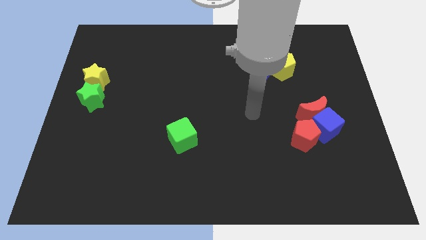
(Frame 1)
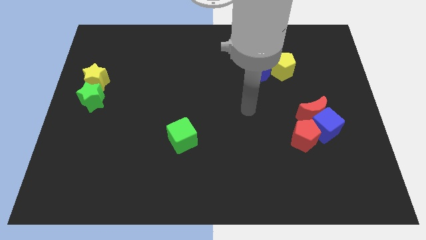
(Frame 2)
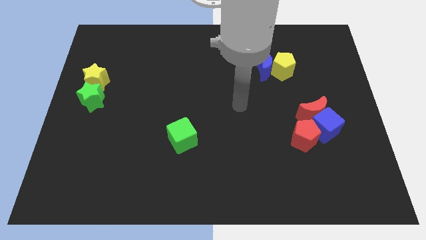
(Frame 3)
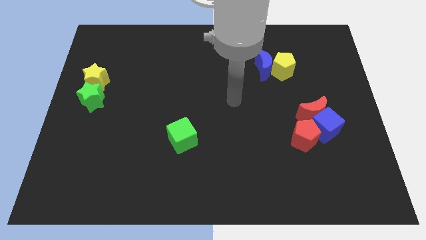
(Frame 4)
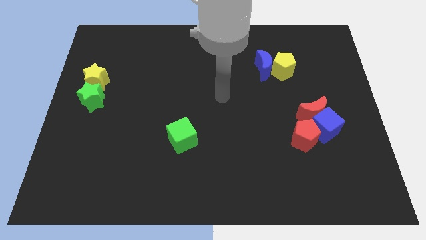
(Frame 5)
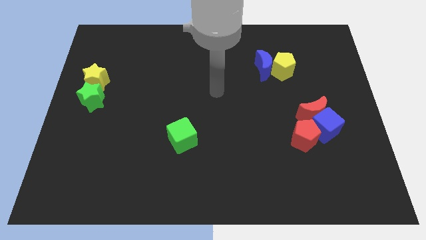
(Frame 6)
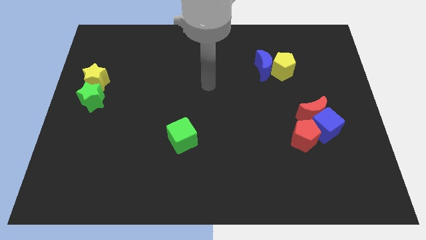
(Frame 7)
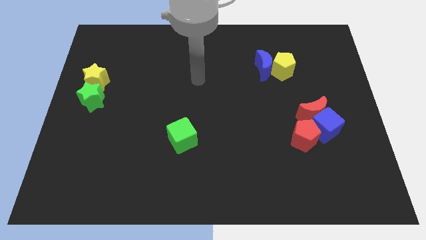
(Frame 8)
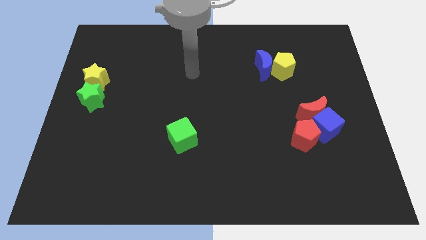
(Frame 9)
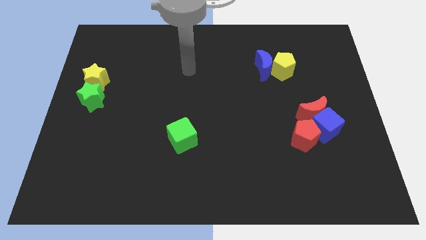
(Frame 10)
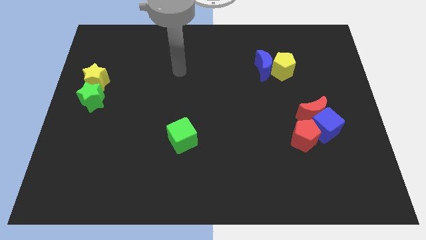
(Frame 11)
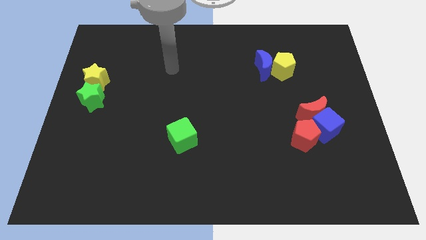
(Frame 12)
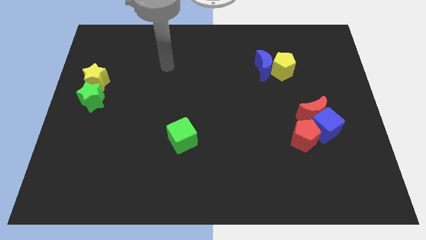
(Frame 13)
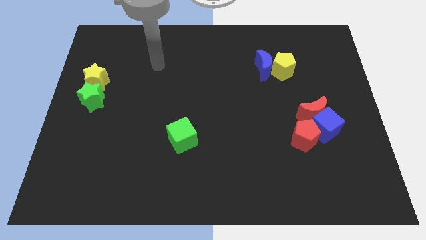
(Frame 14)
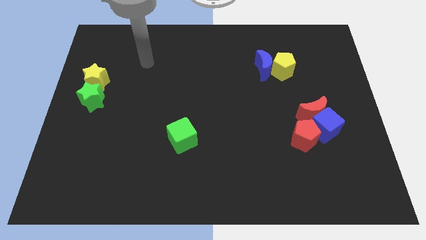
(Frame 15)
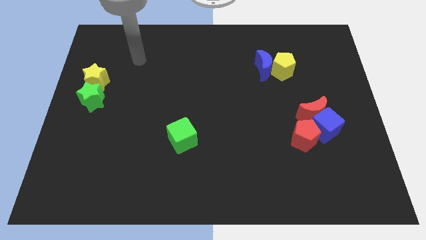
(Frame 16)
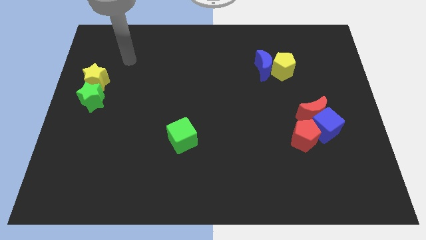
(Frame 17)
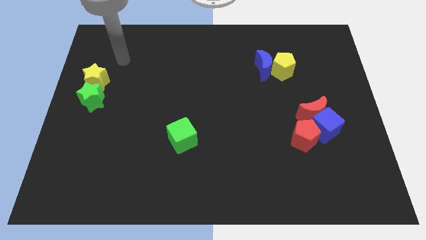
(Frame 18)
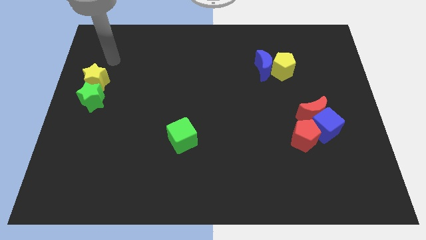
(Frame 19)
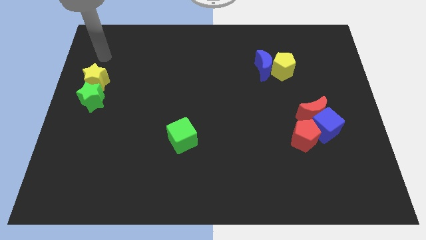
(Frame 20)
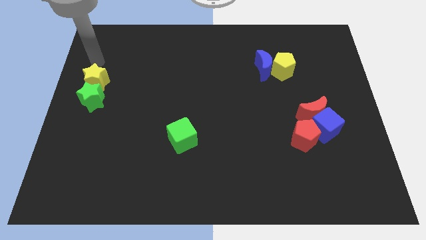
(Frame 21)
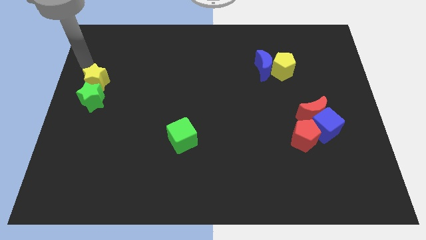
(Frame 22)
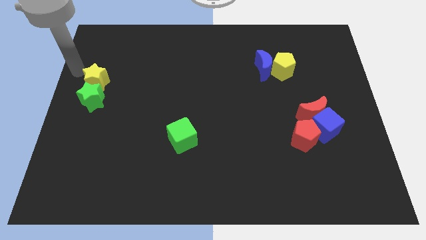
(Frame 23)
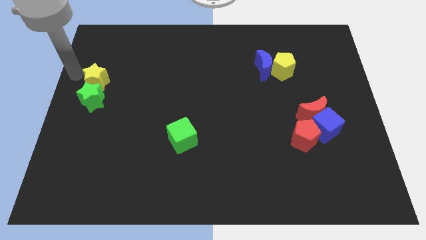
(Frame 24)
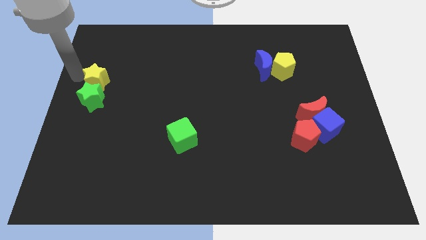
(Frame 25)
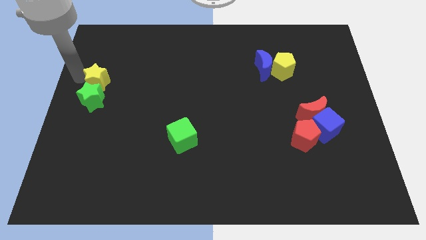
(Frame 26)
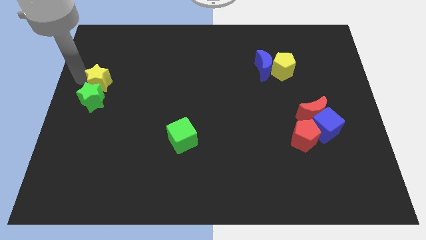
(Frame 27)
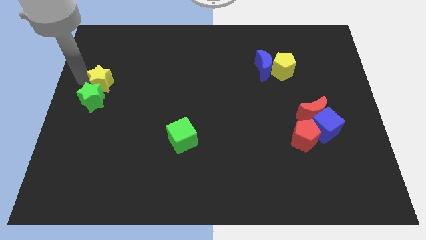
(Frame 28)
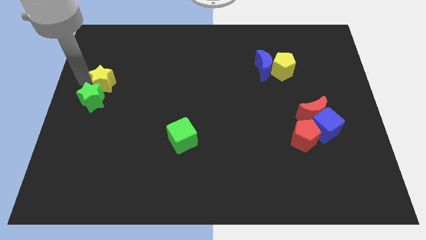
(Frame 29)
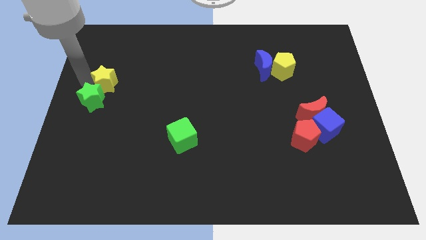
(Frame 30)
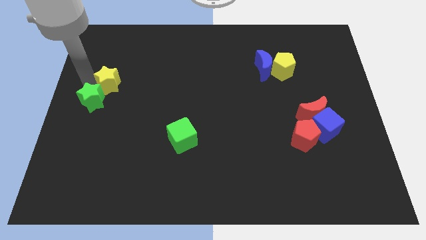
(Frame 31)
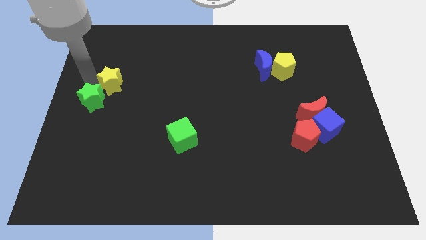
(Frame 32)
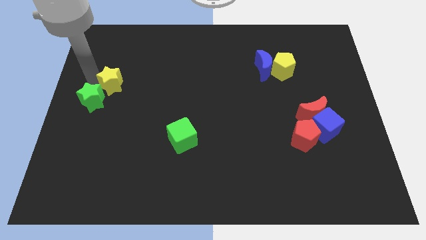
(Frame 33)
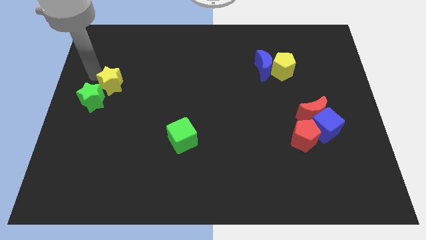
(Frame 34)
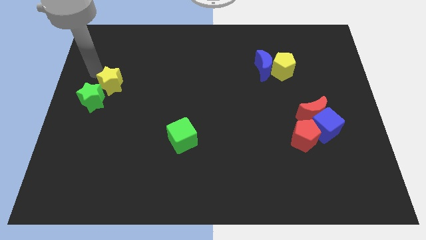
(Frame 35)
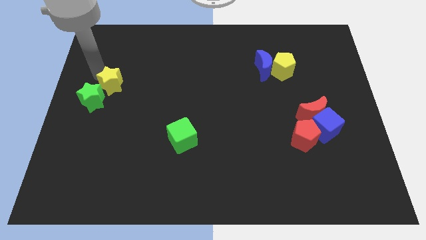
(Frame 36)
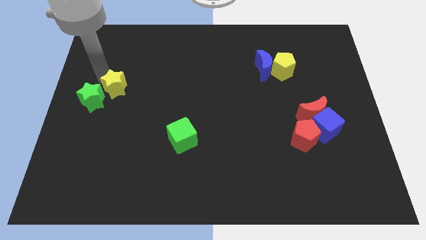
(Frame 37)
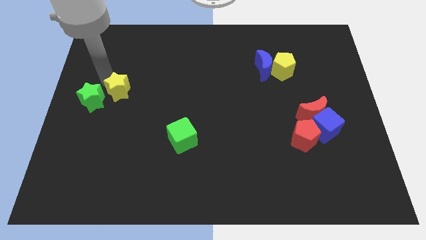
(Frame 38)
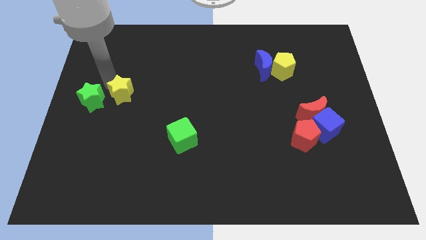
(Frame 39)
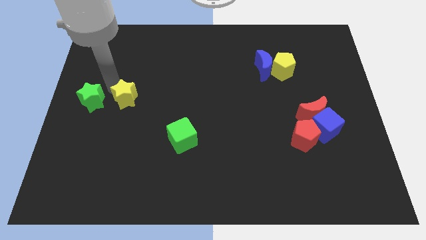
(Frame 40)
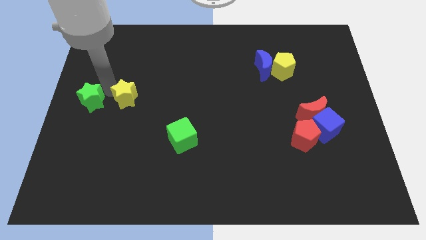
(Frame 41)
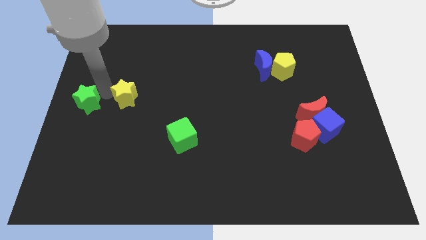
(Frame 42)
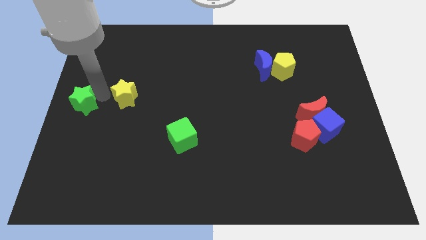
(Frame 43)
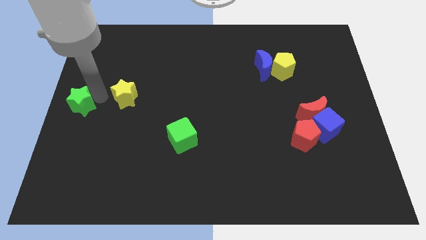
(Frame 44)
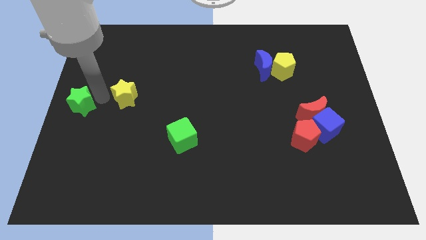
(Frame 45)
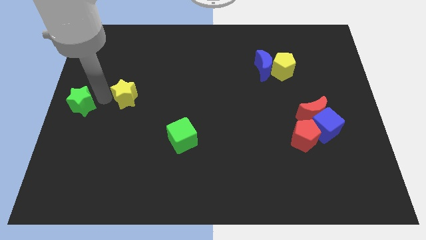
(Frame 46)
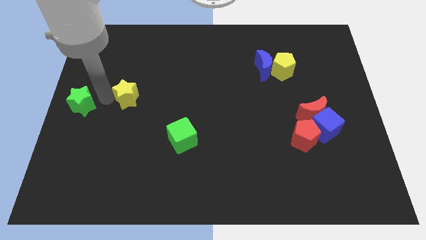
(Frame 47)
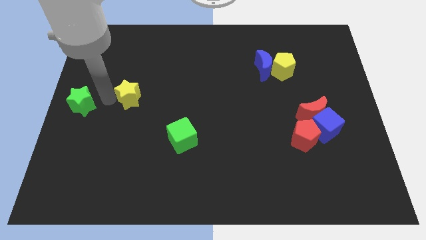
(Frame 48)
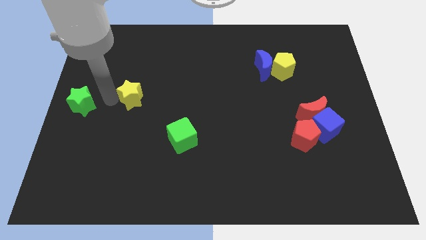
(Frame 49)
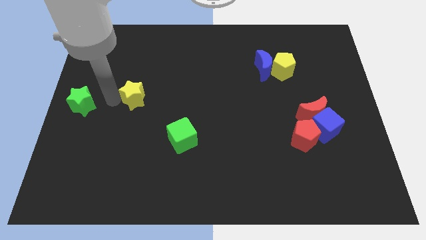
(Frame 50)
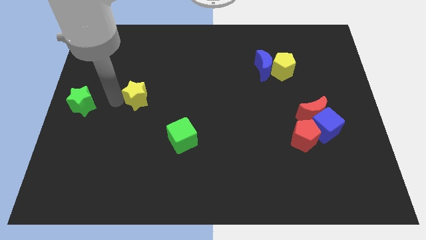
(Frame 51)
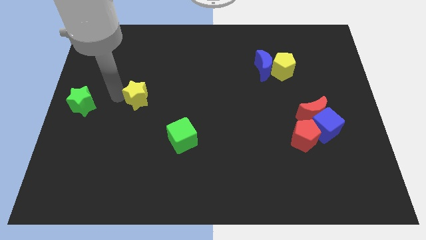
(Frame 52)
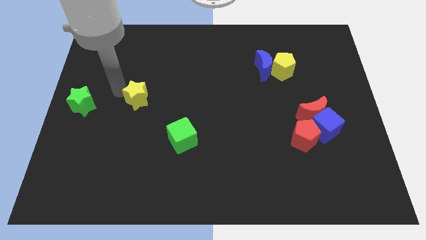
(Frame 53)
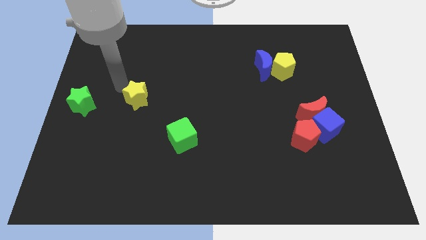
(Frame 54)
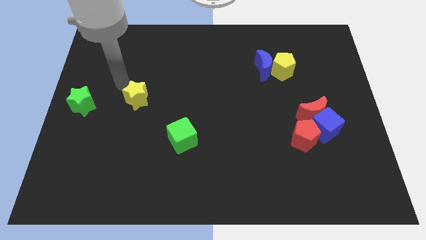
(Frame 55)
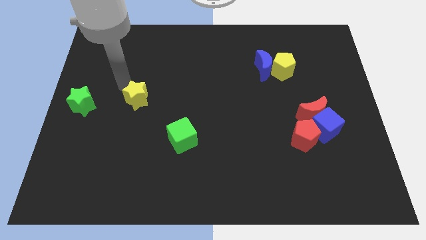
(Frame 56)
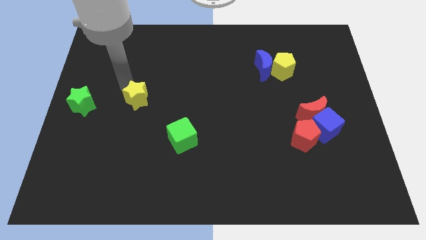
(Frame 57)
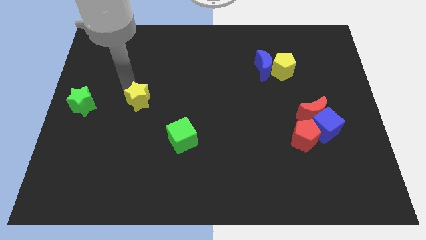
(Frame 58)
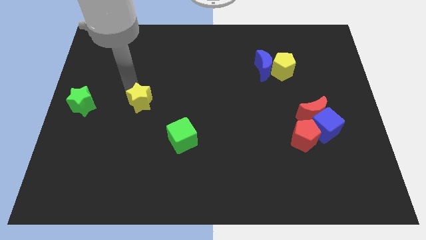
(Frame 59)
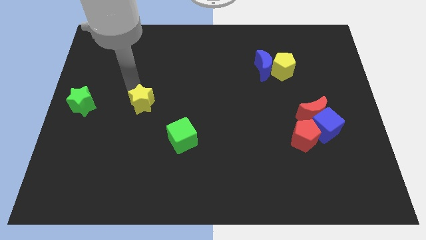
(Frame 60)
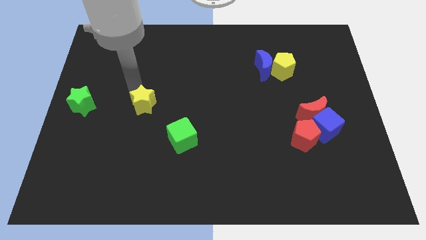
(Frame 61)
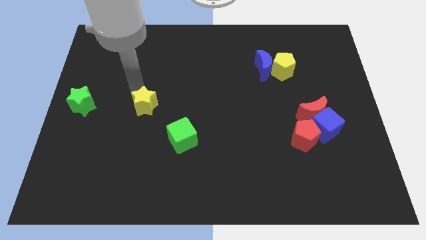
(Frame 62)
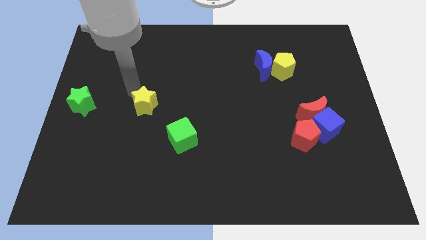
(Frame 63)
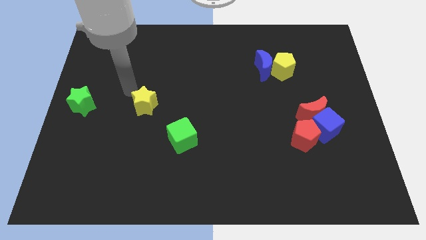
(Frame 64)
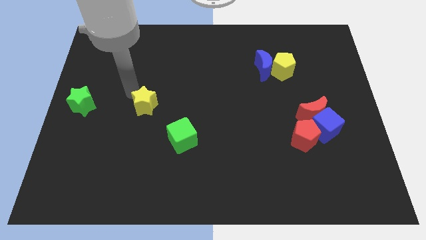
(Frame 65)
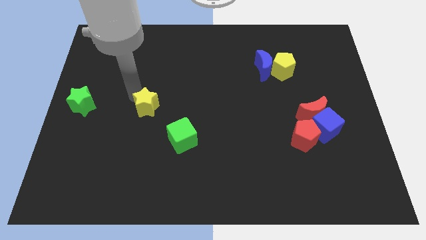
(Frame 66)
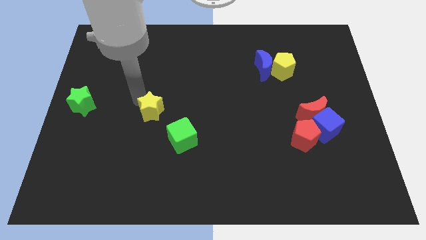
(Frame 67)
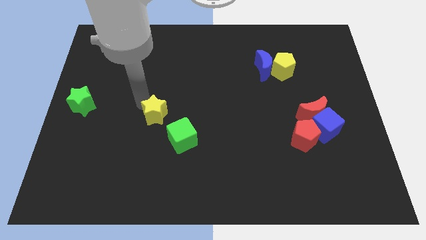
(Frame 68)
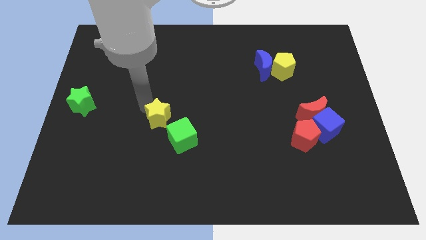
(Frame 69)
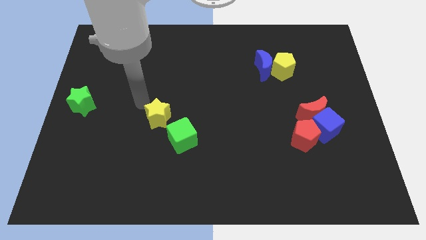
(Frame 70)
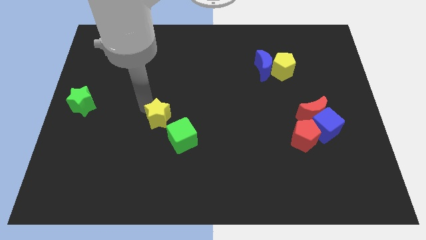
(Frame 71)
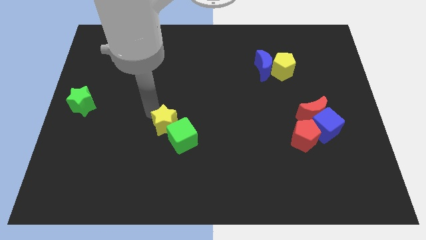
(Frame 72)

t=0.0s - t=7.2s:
slide the yellow star towards the green cube

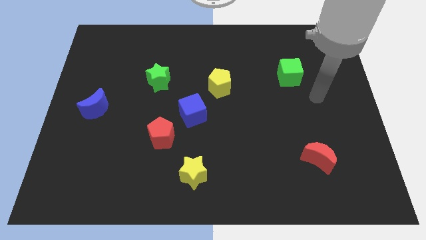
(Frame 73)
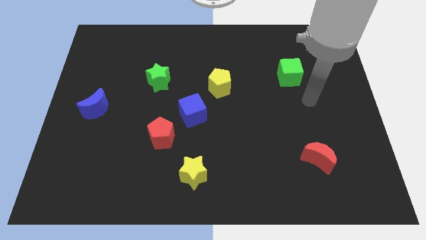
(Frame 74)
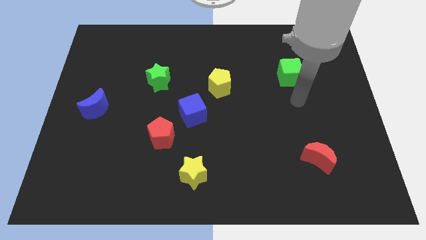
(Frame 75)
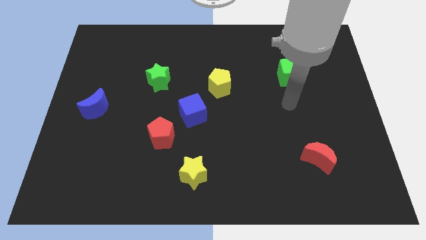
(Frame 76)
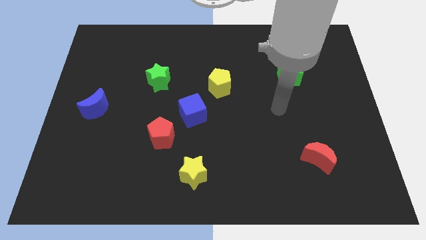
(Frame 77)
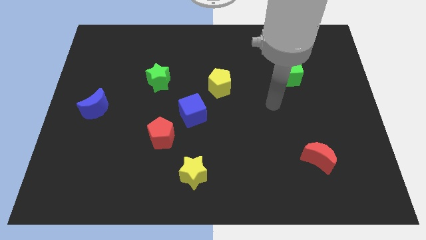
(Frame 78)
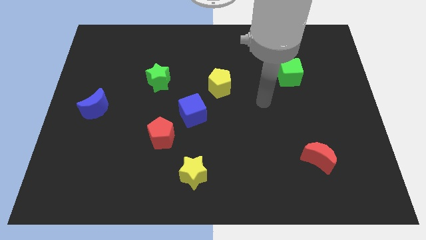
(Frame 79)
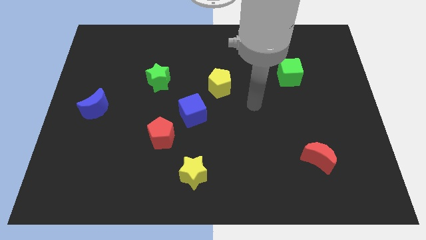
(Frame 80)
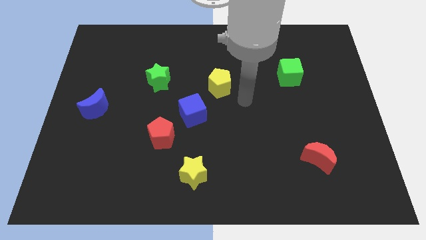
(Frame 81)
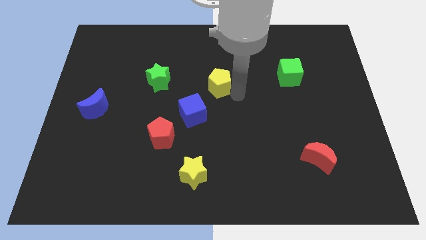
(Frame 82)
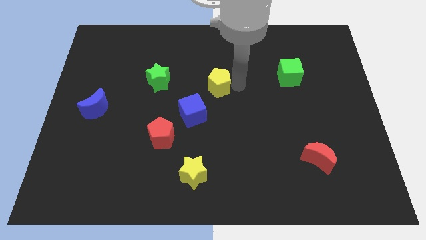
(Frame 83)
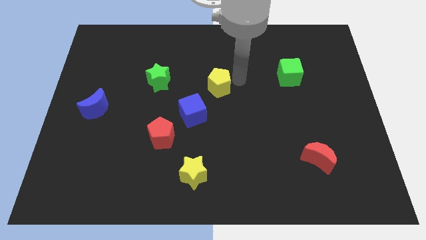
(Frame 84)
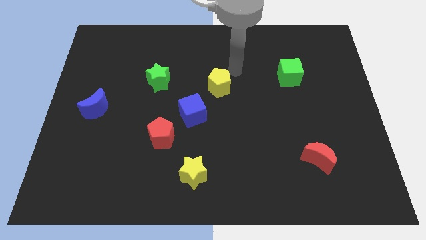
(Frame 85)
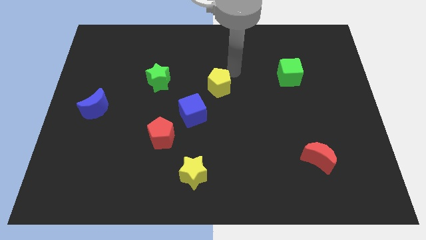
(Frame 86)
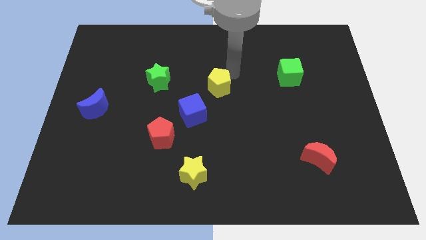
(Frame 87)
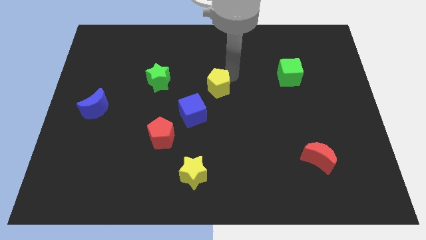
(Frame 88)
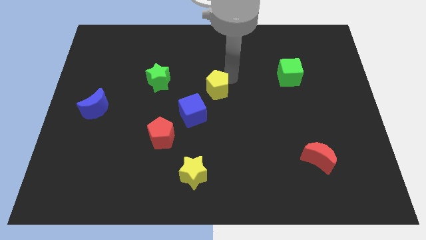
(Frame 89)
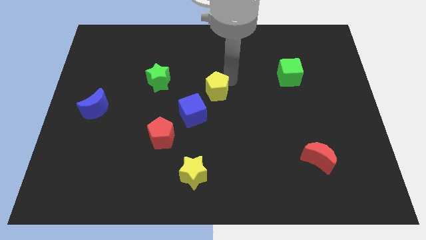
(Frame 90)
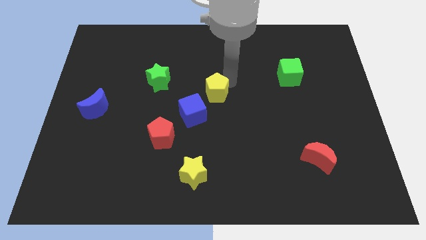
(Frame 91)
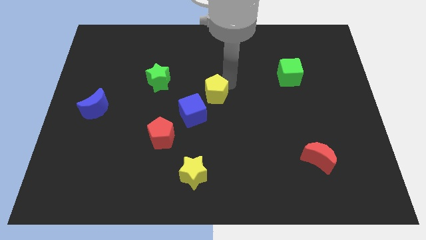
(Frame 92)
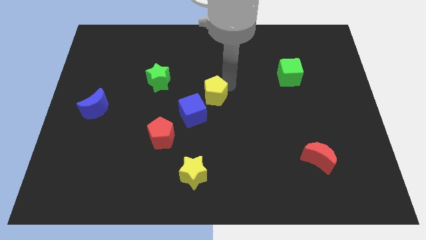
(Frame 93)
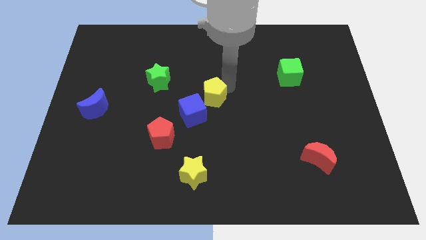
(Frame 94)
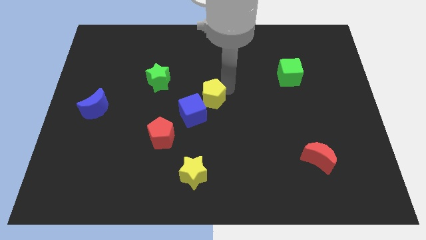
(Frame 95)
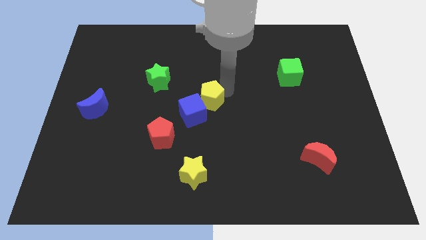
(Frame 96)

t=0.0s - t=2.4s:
put the yellow pentagon close to the blue cube
